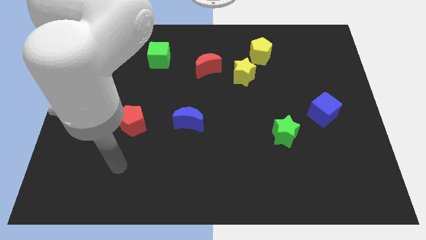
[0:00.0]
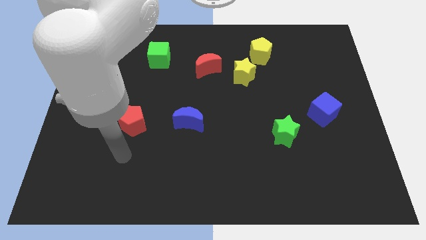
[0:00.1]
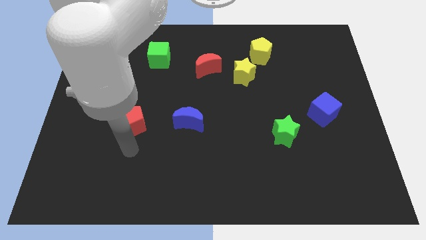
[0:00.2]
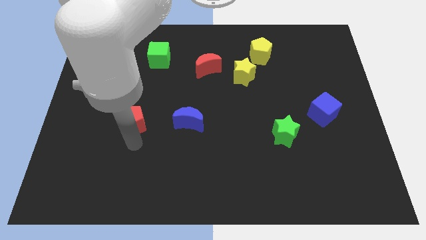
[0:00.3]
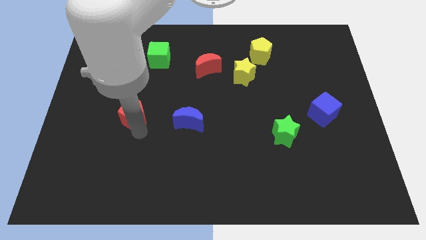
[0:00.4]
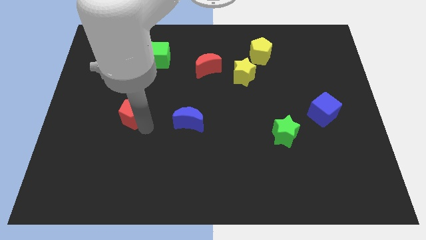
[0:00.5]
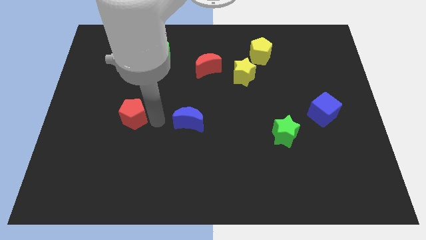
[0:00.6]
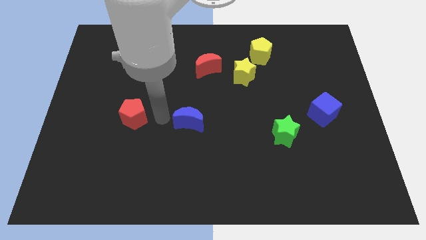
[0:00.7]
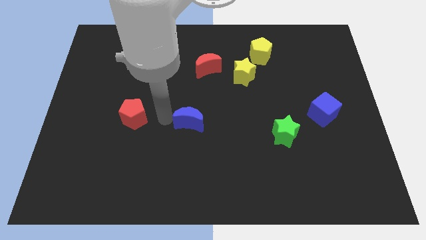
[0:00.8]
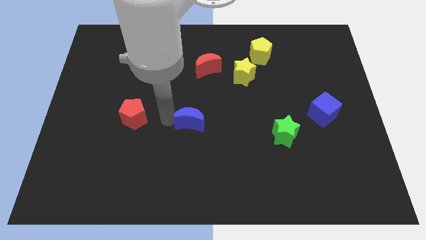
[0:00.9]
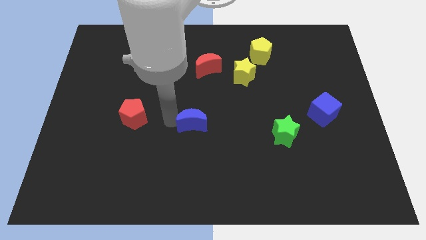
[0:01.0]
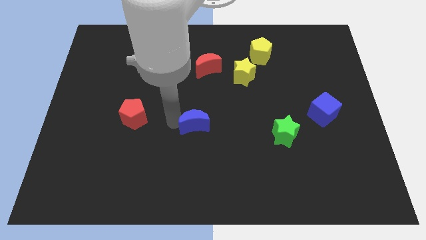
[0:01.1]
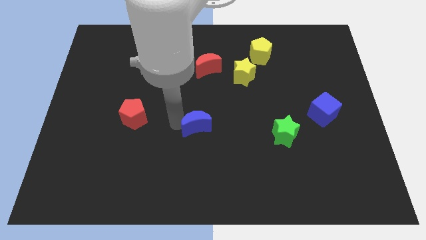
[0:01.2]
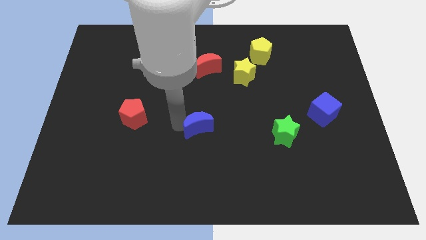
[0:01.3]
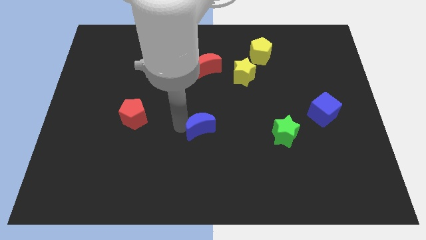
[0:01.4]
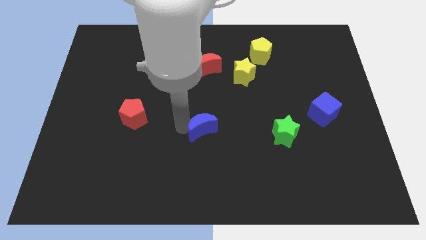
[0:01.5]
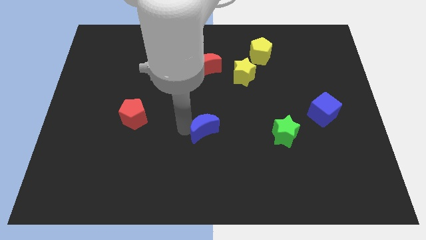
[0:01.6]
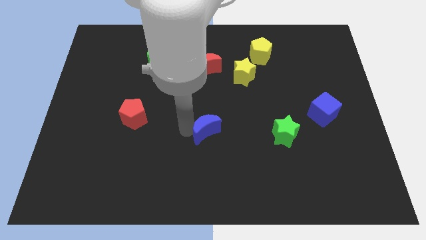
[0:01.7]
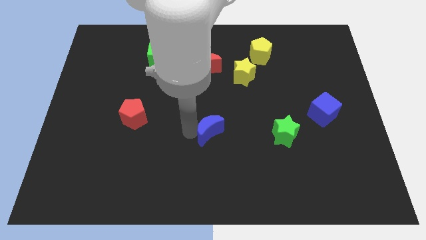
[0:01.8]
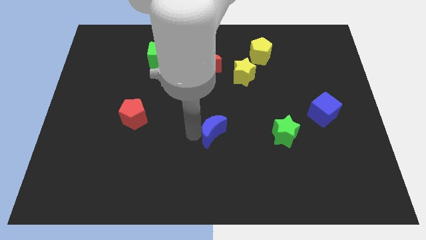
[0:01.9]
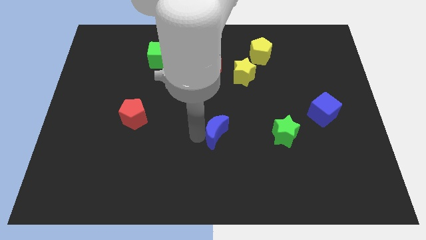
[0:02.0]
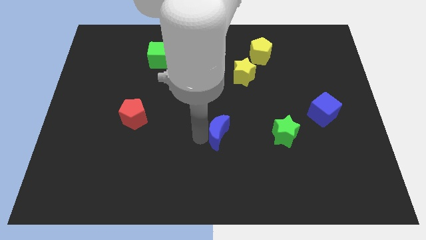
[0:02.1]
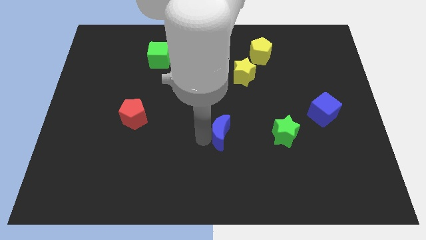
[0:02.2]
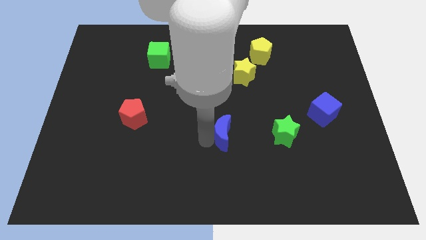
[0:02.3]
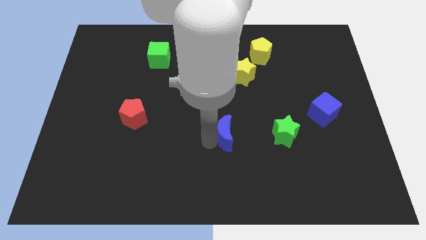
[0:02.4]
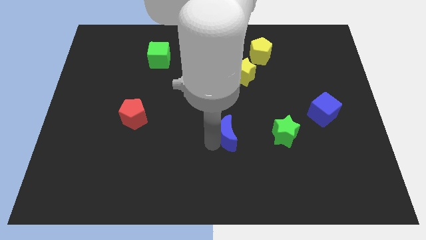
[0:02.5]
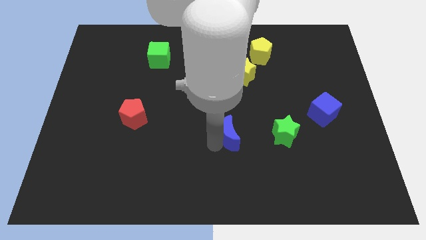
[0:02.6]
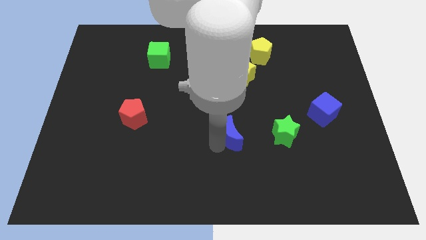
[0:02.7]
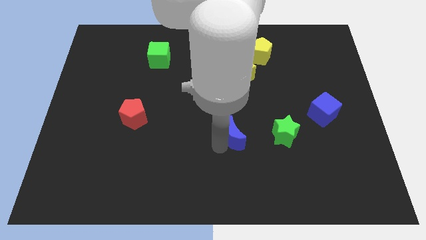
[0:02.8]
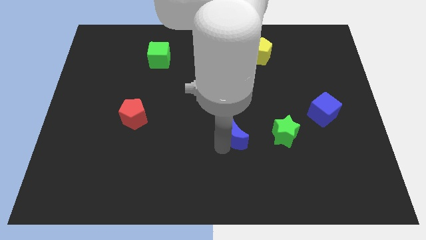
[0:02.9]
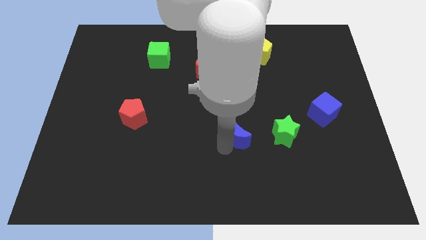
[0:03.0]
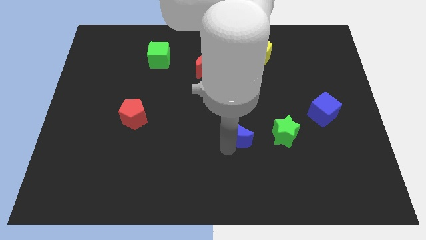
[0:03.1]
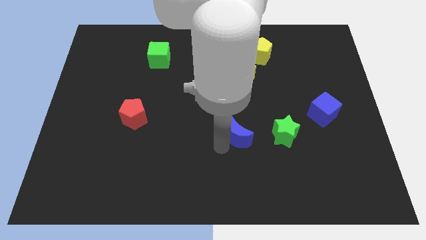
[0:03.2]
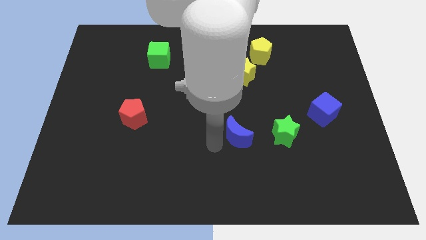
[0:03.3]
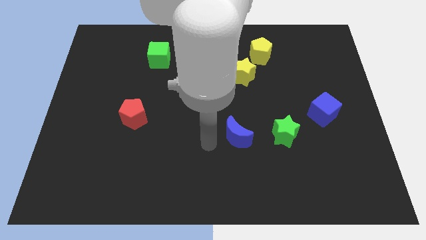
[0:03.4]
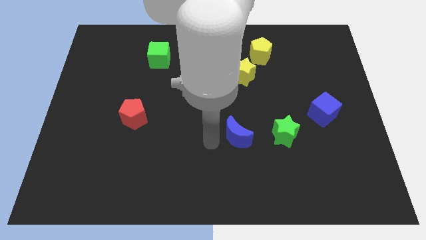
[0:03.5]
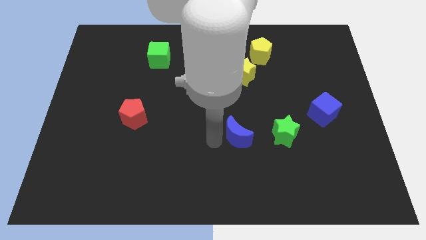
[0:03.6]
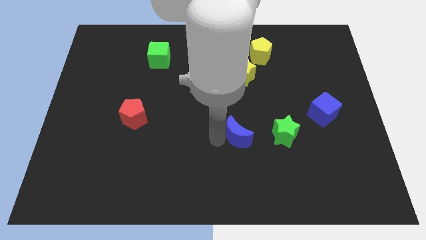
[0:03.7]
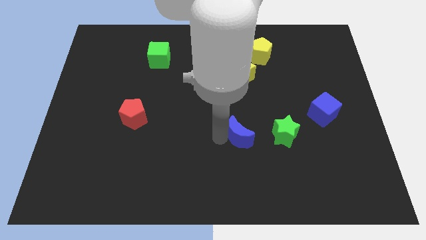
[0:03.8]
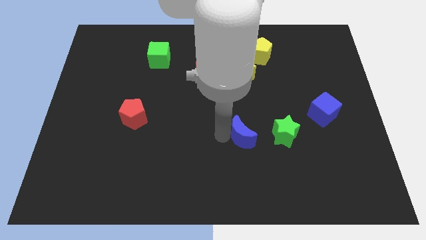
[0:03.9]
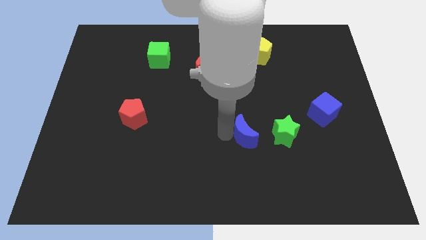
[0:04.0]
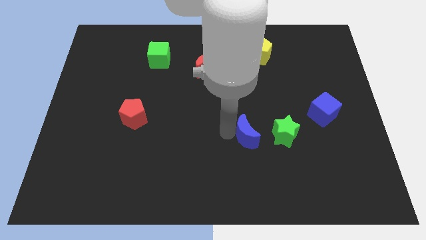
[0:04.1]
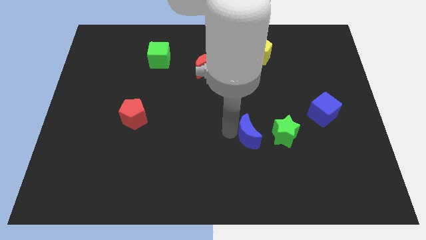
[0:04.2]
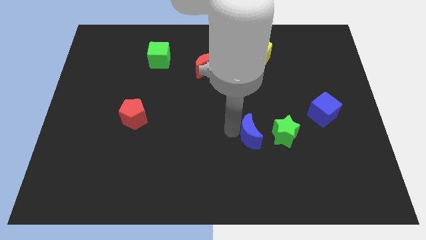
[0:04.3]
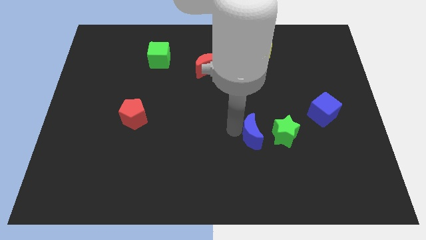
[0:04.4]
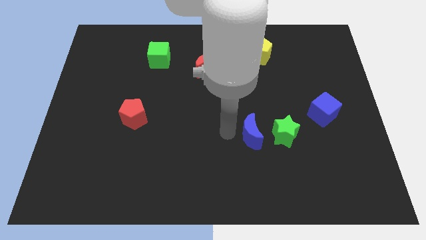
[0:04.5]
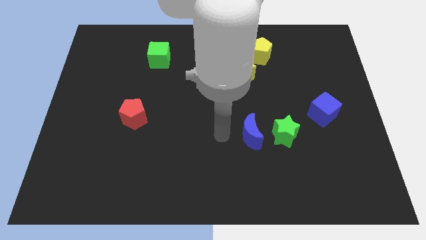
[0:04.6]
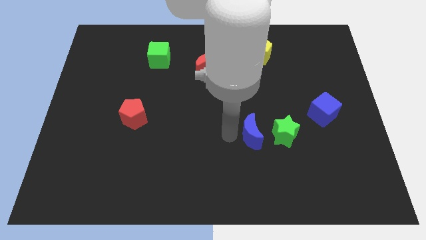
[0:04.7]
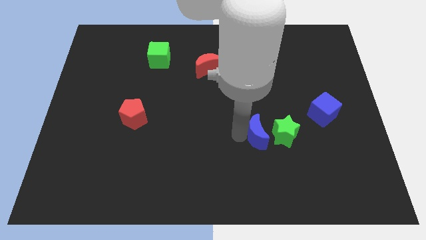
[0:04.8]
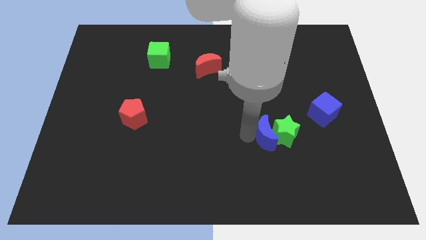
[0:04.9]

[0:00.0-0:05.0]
put the blue moon towards the green star

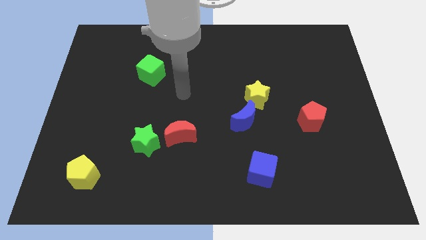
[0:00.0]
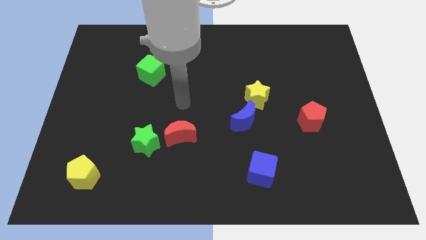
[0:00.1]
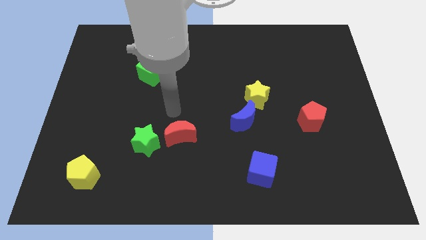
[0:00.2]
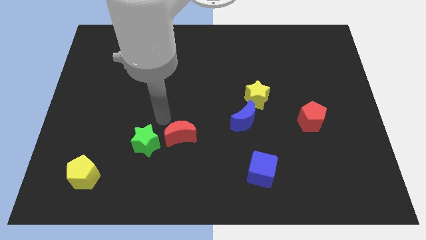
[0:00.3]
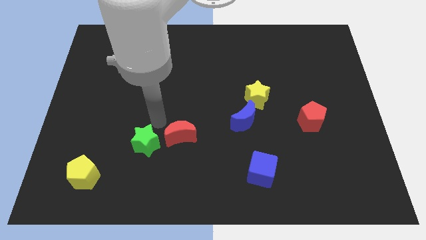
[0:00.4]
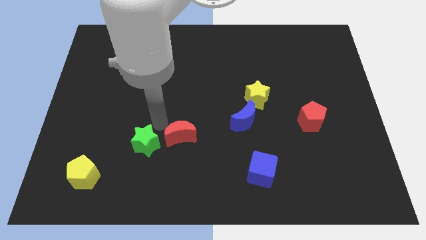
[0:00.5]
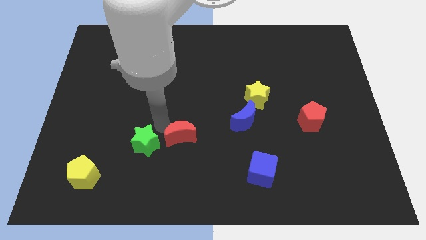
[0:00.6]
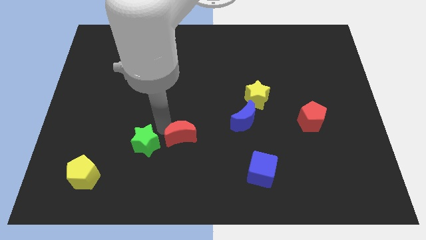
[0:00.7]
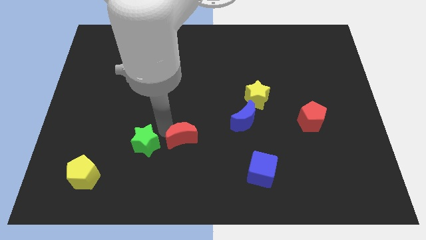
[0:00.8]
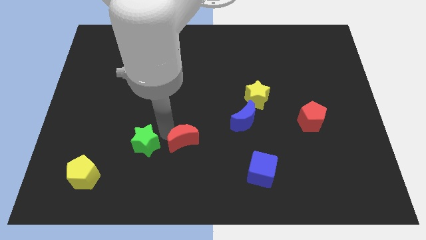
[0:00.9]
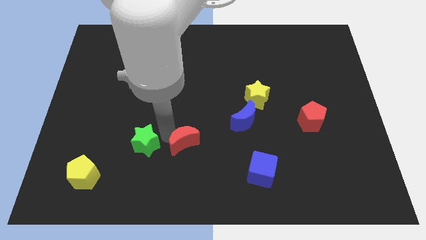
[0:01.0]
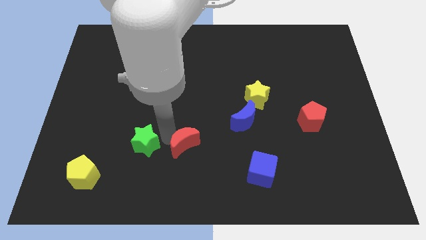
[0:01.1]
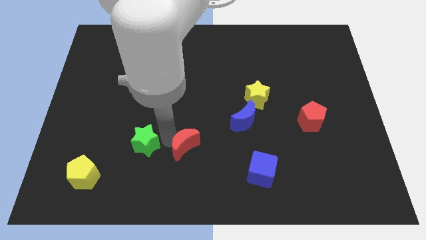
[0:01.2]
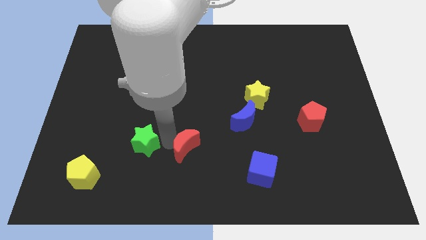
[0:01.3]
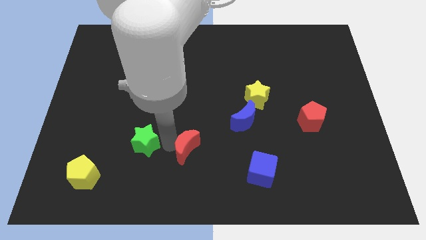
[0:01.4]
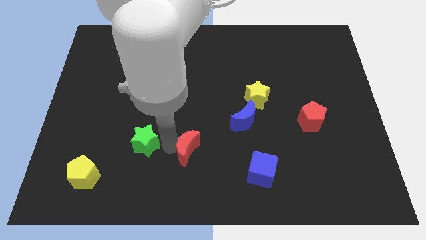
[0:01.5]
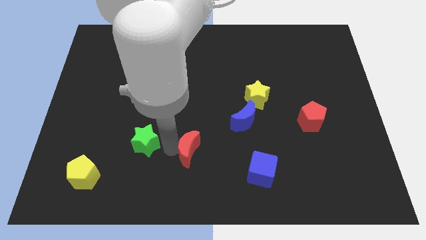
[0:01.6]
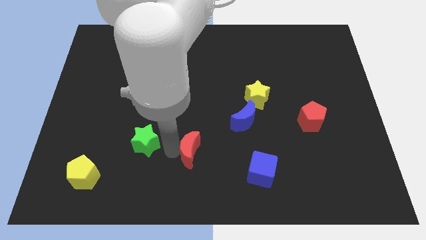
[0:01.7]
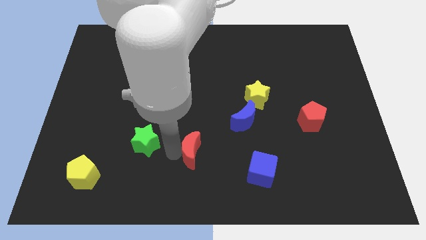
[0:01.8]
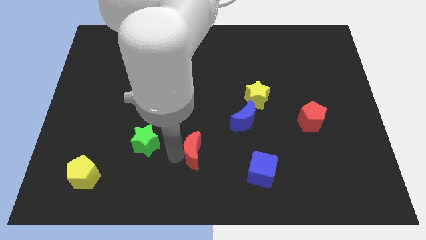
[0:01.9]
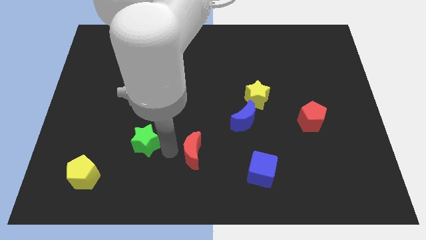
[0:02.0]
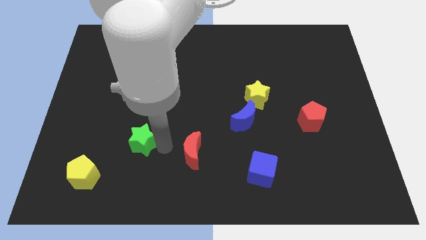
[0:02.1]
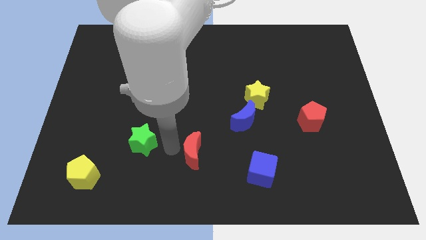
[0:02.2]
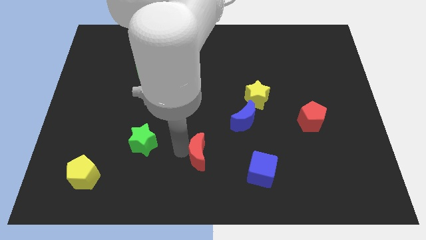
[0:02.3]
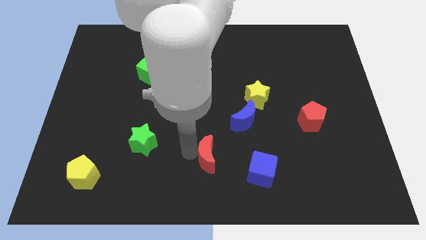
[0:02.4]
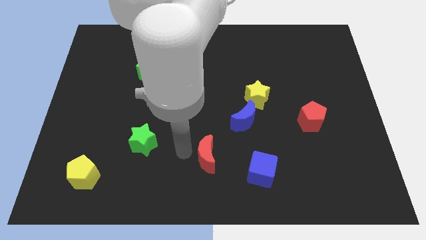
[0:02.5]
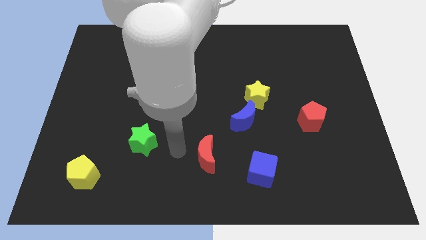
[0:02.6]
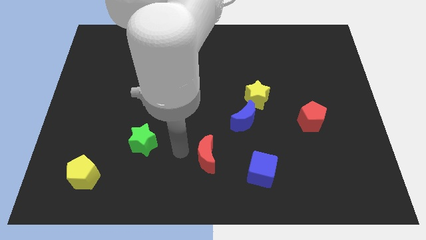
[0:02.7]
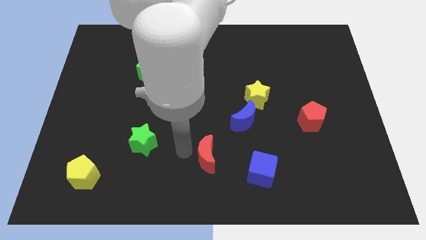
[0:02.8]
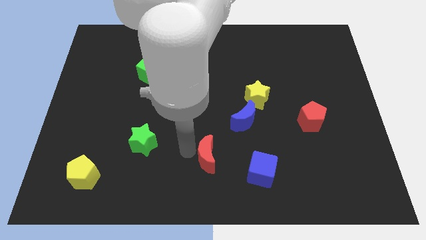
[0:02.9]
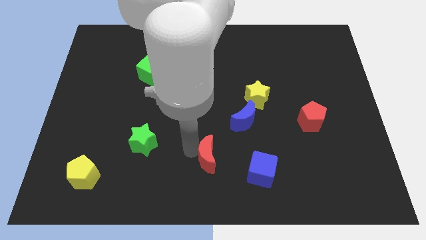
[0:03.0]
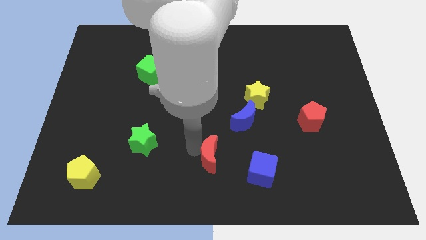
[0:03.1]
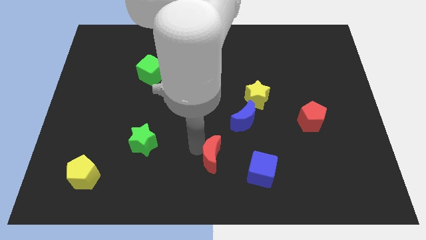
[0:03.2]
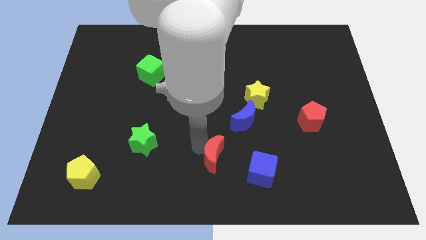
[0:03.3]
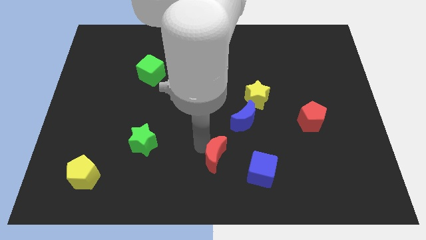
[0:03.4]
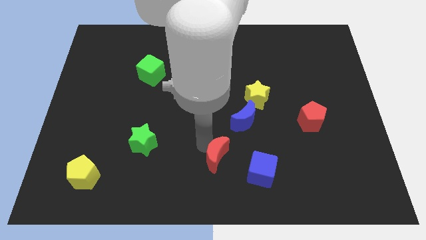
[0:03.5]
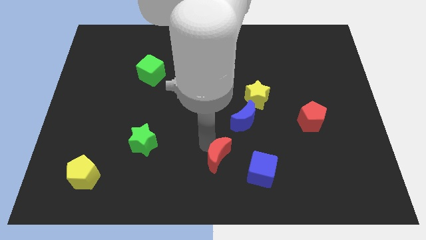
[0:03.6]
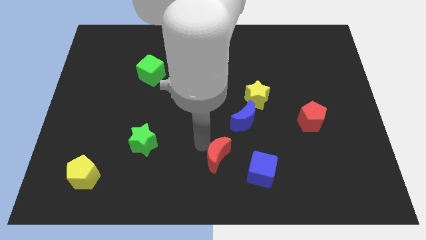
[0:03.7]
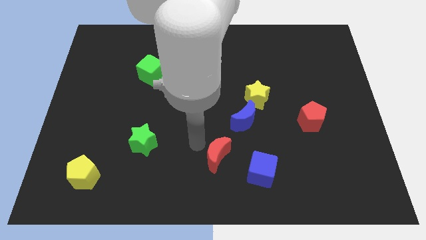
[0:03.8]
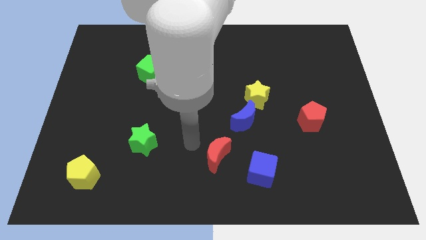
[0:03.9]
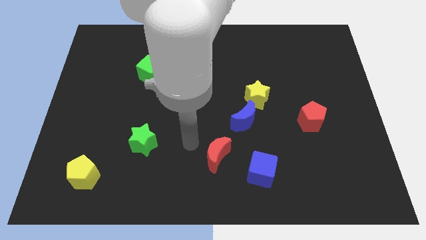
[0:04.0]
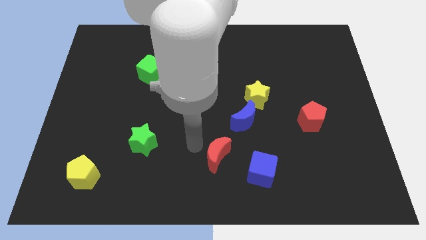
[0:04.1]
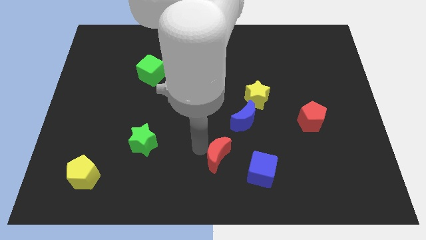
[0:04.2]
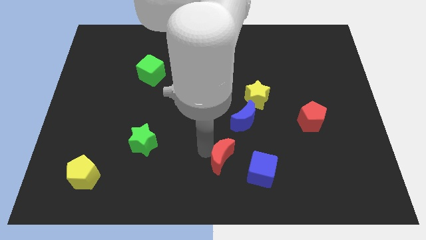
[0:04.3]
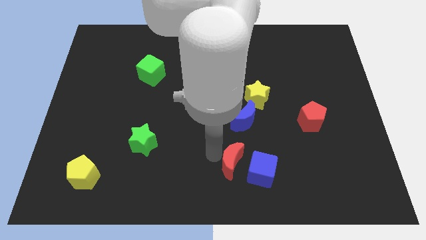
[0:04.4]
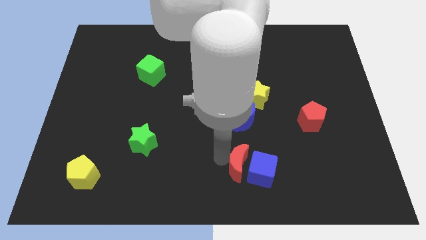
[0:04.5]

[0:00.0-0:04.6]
put the red moon towards the blue cube
